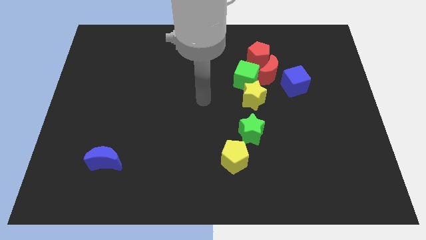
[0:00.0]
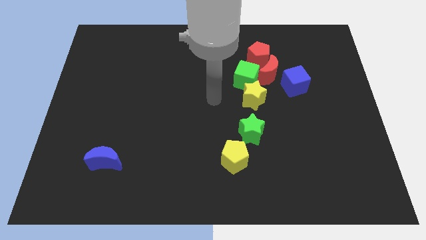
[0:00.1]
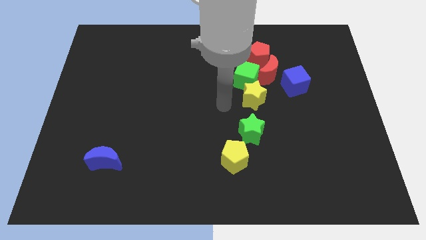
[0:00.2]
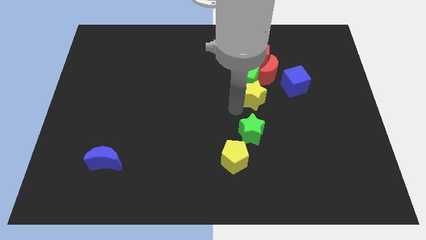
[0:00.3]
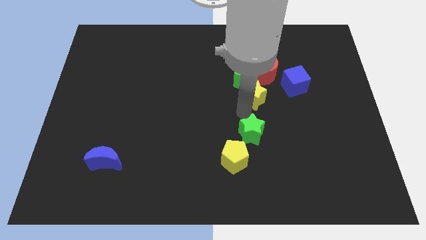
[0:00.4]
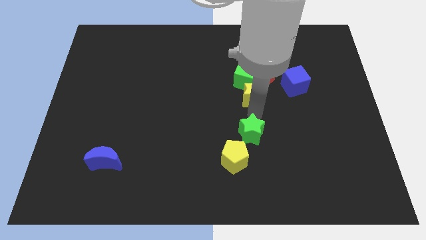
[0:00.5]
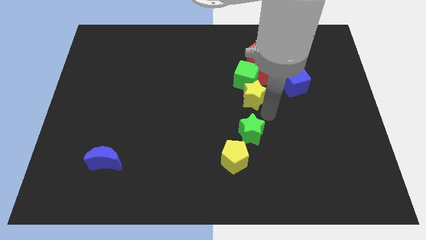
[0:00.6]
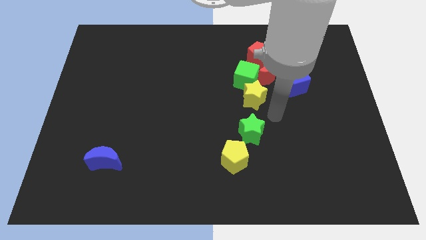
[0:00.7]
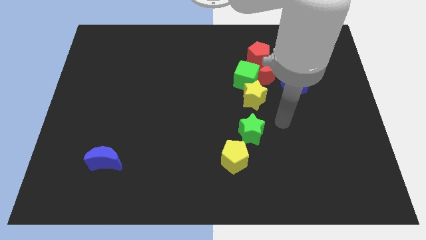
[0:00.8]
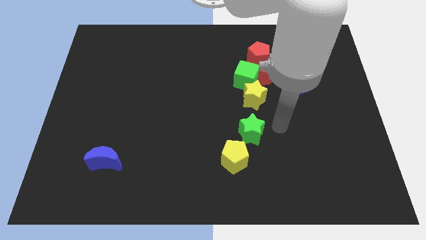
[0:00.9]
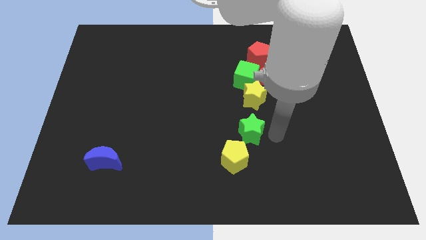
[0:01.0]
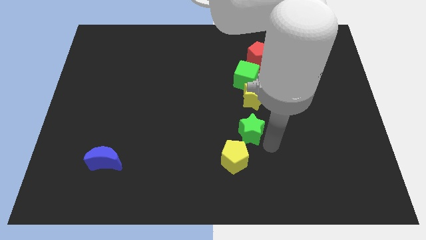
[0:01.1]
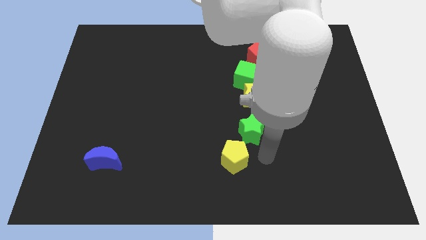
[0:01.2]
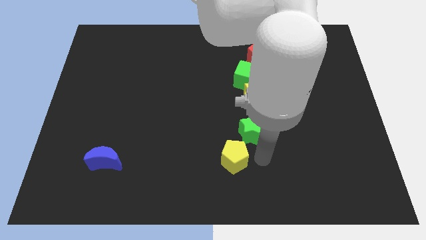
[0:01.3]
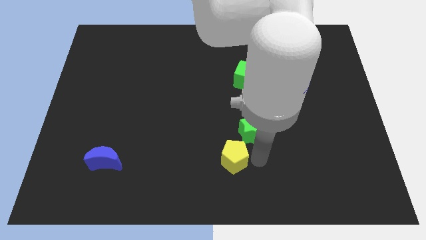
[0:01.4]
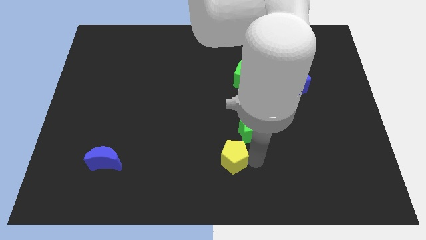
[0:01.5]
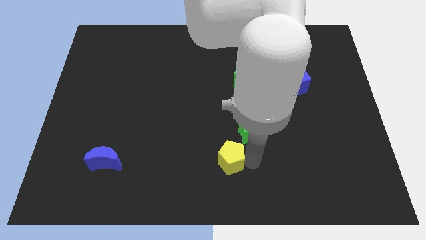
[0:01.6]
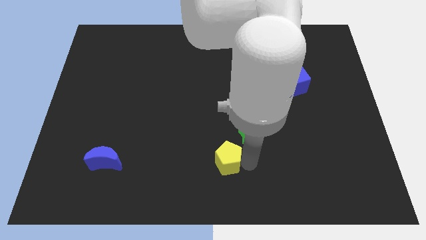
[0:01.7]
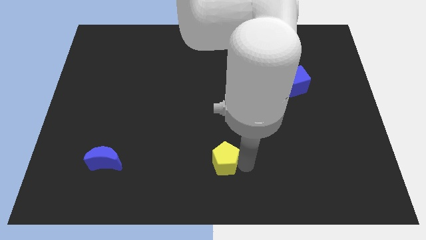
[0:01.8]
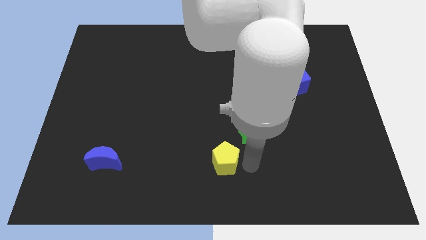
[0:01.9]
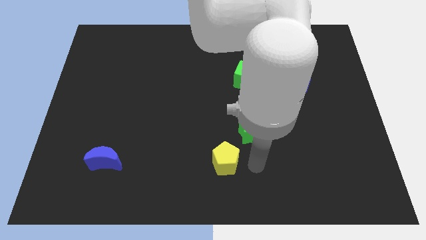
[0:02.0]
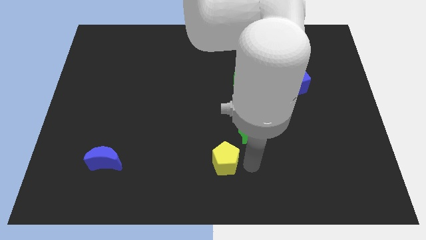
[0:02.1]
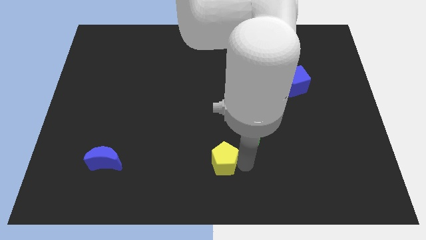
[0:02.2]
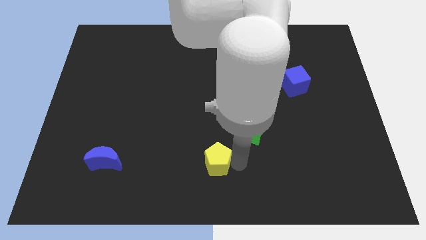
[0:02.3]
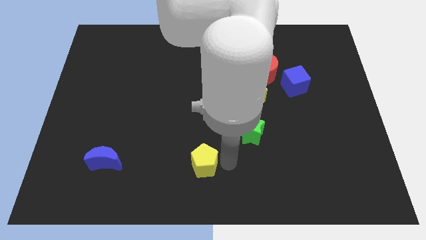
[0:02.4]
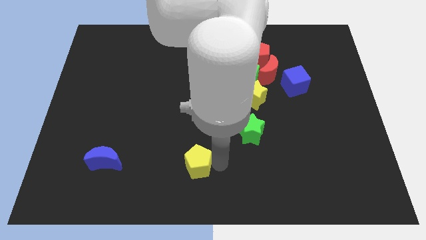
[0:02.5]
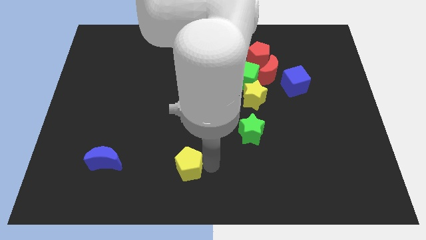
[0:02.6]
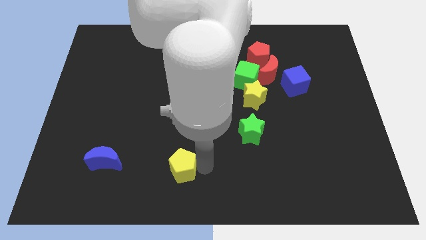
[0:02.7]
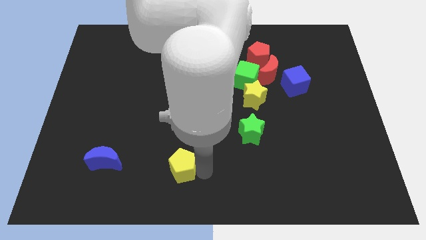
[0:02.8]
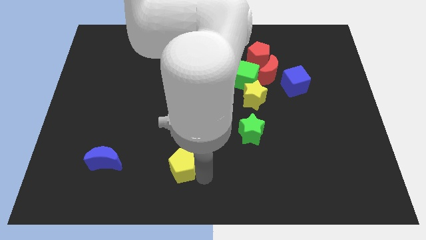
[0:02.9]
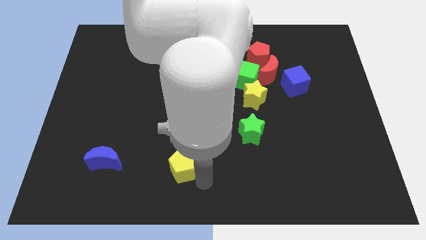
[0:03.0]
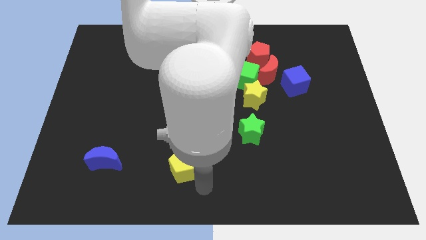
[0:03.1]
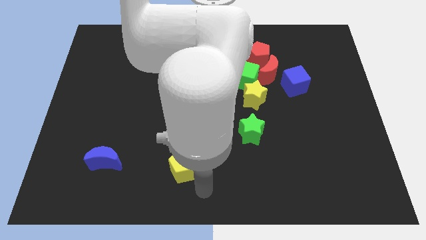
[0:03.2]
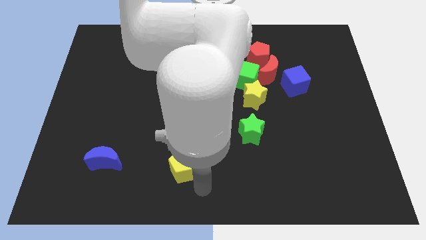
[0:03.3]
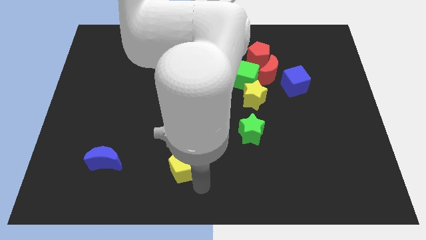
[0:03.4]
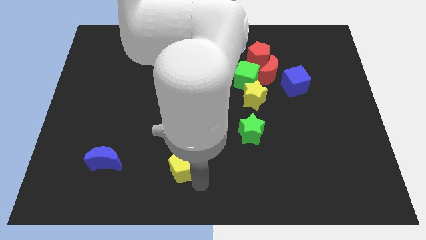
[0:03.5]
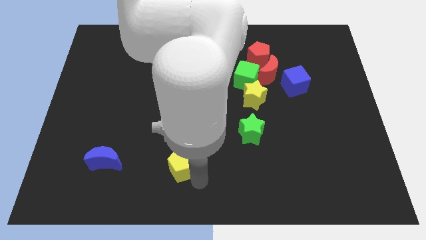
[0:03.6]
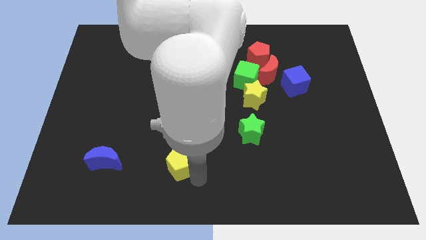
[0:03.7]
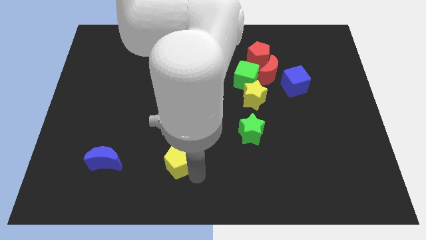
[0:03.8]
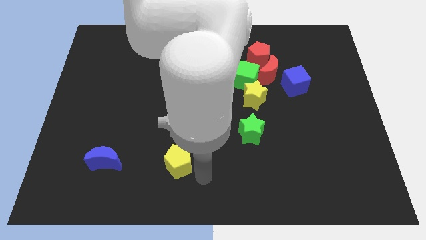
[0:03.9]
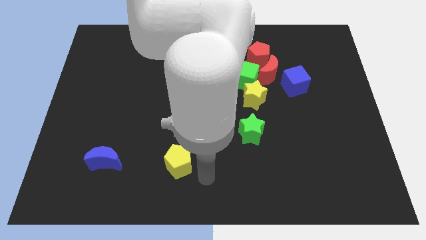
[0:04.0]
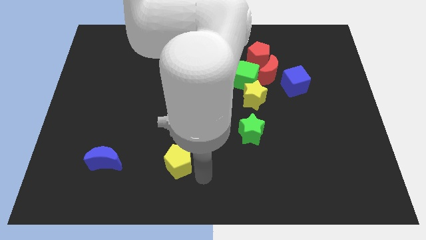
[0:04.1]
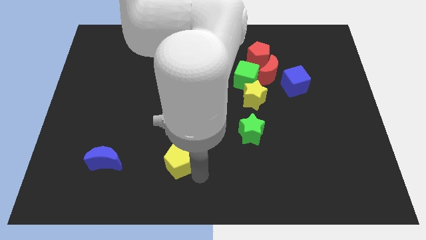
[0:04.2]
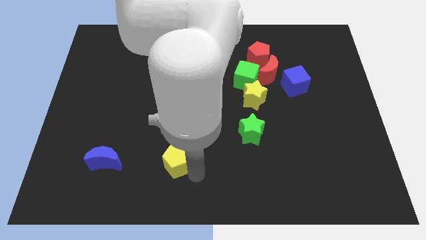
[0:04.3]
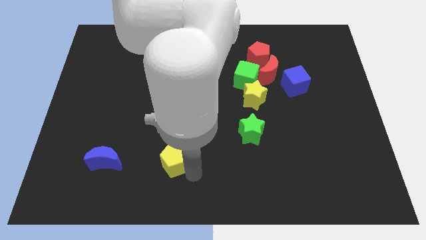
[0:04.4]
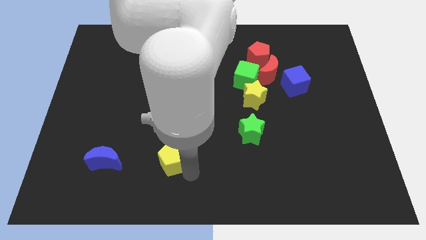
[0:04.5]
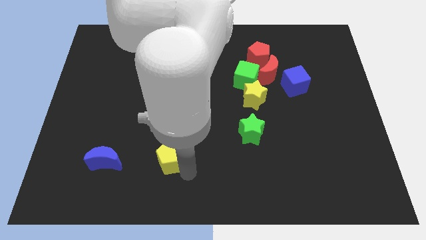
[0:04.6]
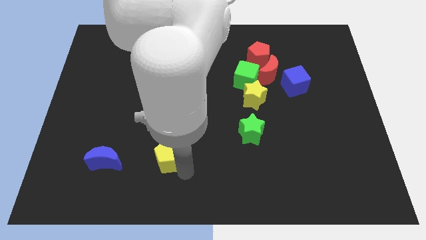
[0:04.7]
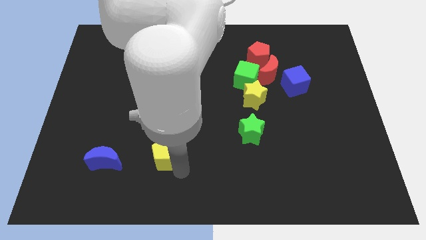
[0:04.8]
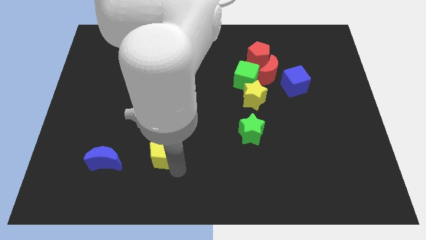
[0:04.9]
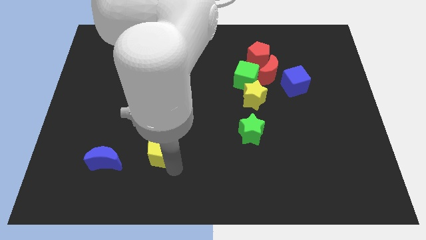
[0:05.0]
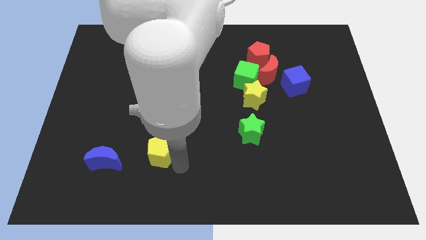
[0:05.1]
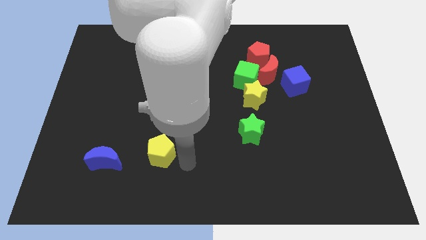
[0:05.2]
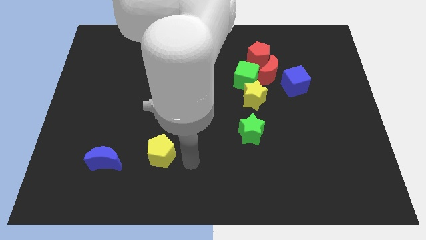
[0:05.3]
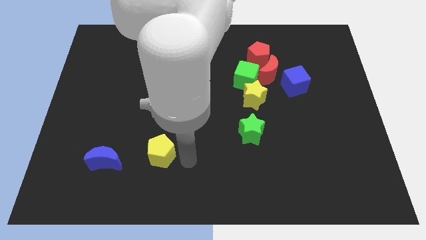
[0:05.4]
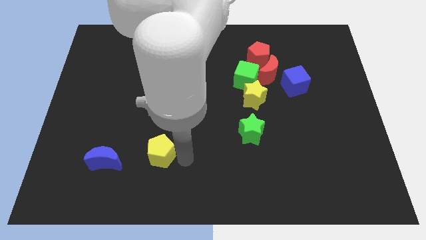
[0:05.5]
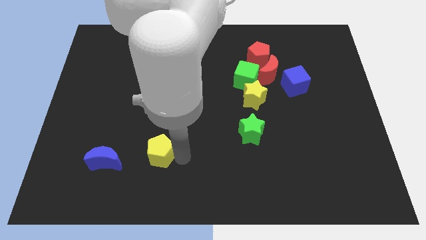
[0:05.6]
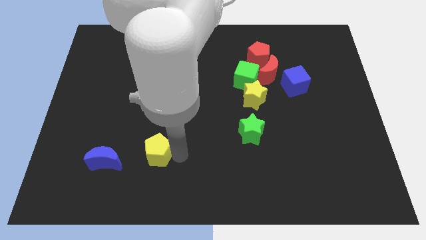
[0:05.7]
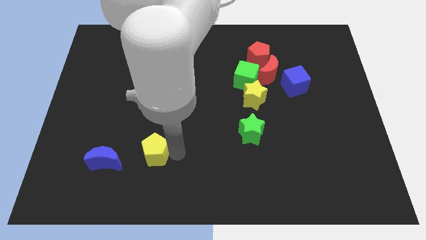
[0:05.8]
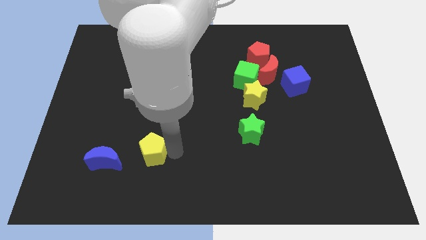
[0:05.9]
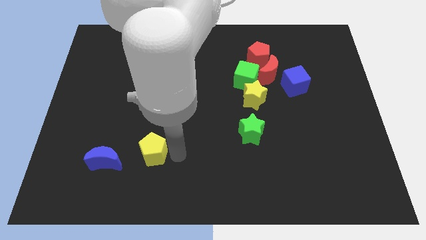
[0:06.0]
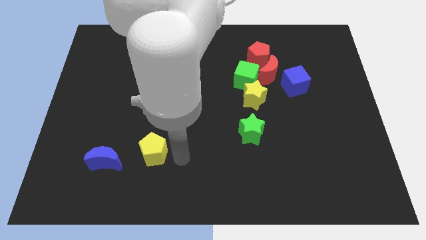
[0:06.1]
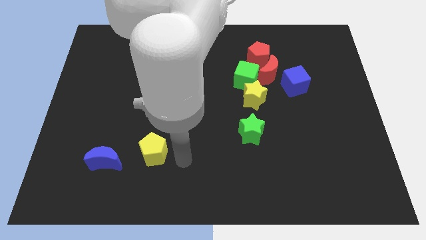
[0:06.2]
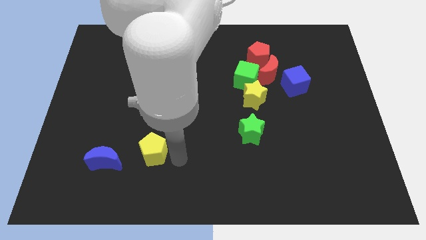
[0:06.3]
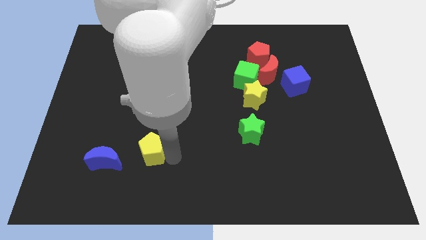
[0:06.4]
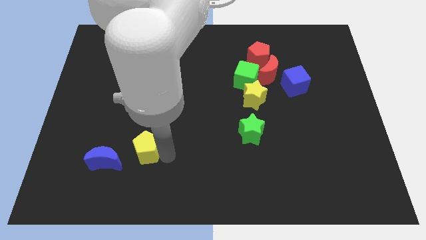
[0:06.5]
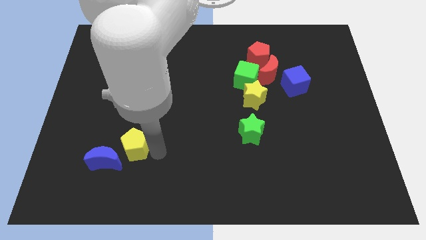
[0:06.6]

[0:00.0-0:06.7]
move the yellow pentagon to the left

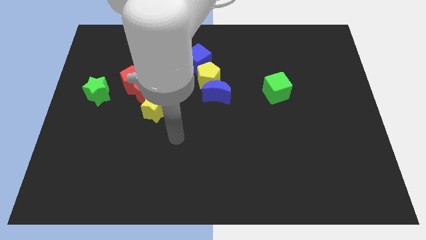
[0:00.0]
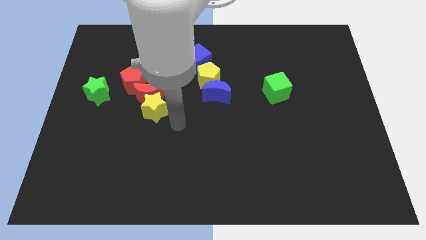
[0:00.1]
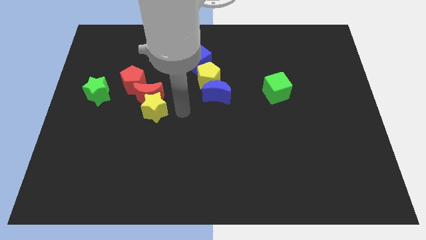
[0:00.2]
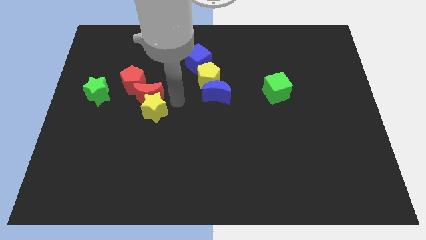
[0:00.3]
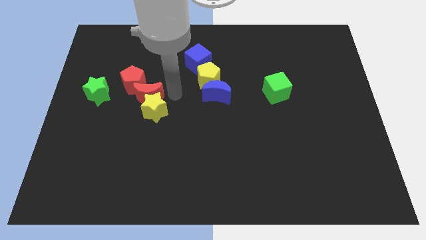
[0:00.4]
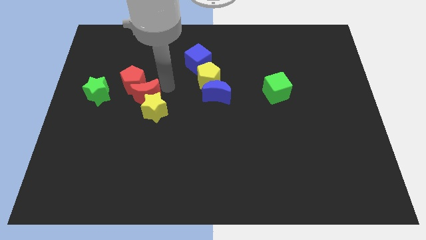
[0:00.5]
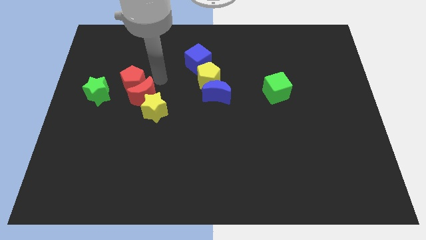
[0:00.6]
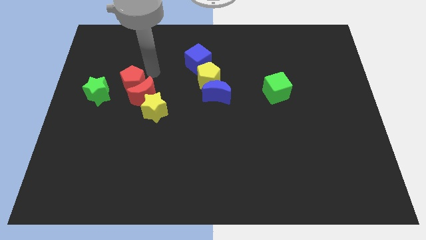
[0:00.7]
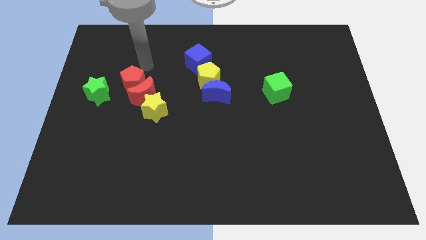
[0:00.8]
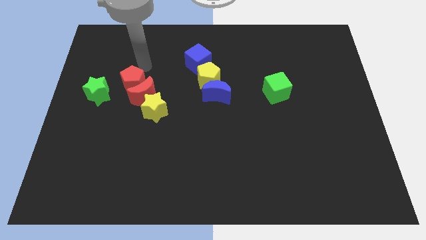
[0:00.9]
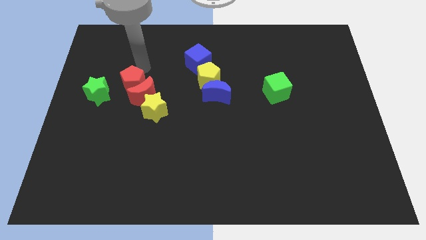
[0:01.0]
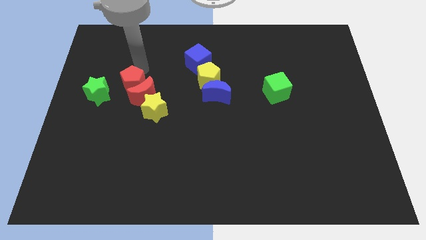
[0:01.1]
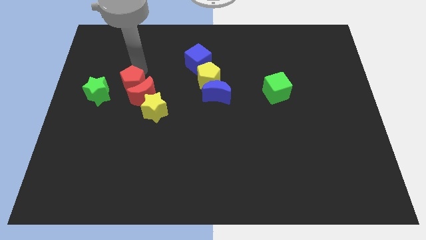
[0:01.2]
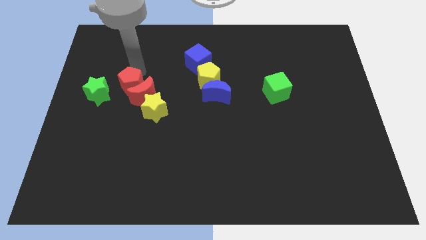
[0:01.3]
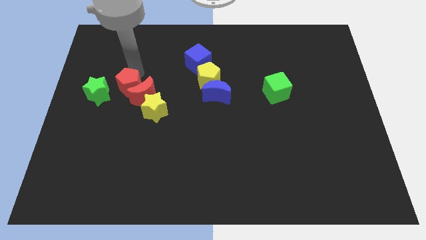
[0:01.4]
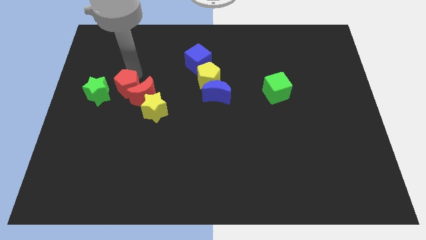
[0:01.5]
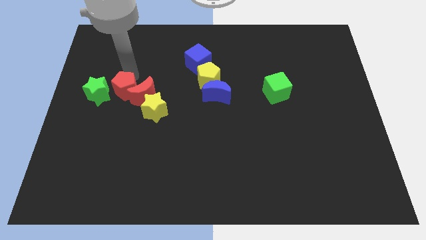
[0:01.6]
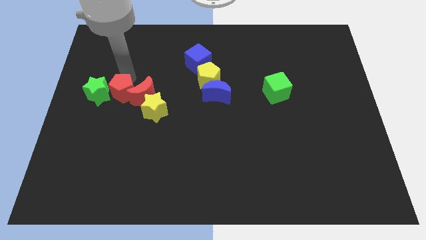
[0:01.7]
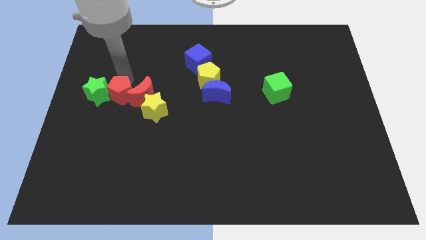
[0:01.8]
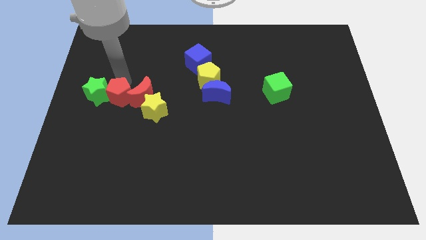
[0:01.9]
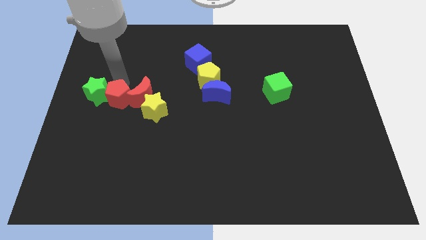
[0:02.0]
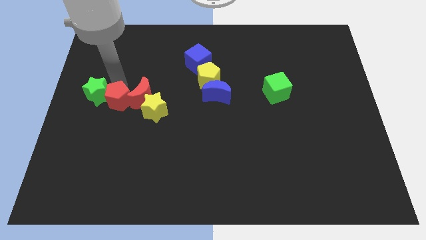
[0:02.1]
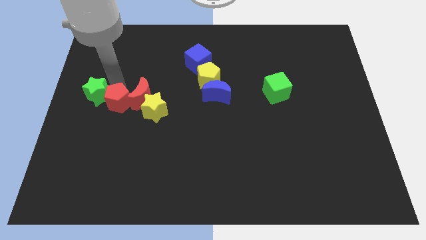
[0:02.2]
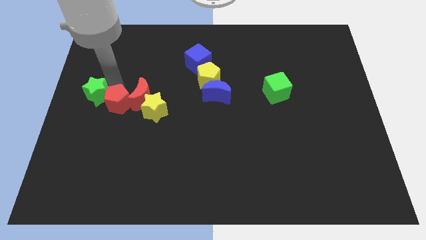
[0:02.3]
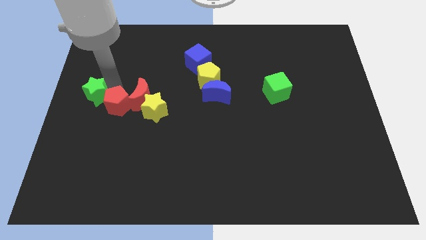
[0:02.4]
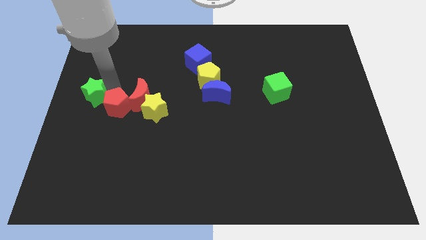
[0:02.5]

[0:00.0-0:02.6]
slide the red pentagon down somewhat
